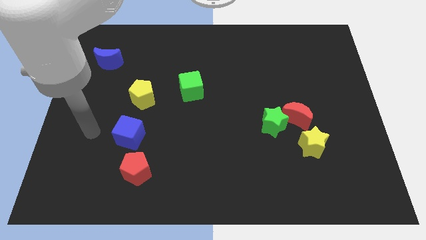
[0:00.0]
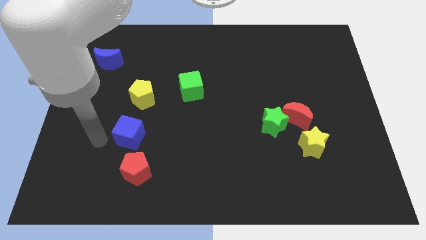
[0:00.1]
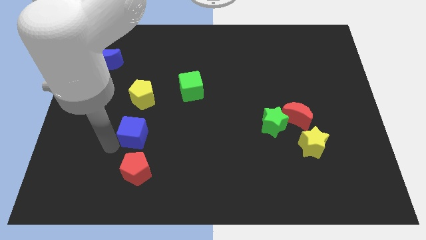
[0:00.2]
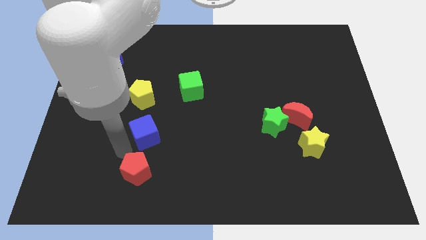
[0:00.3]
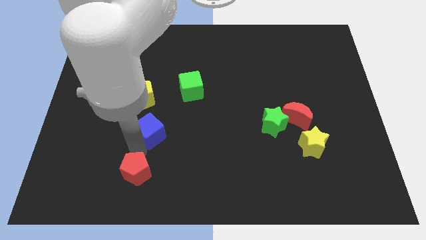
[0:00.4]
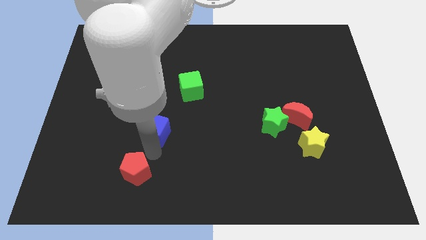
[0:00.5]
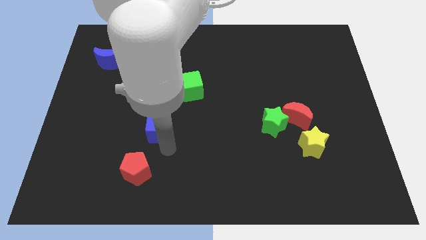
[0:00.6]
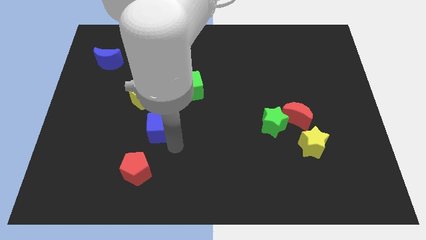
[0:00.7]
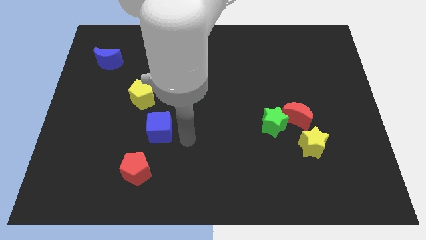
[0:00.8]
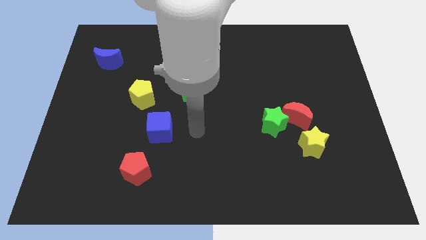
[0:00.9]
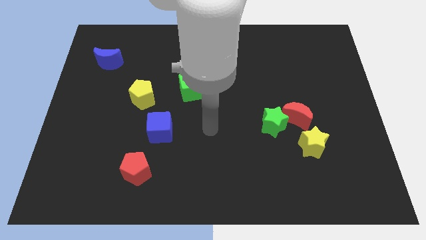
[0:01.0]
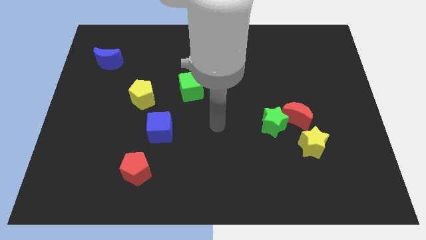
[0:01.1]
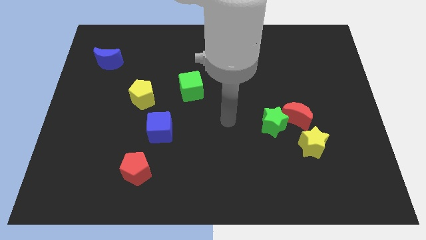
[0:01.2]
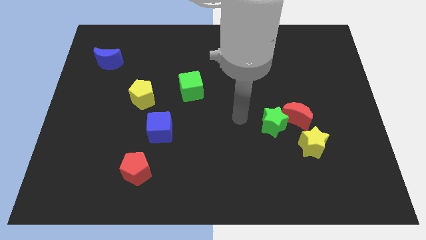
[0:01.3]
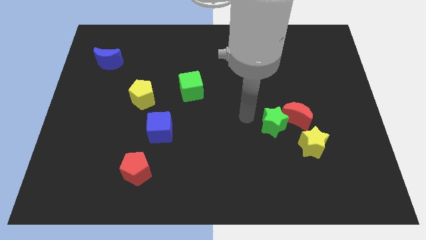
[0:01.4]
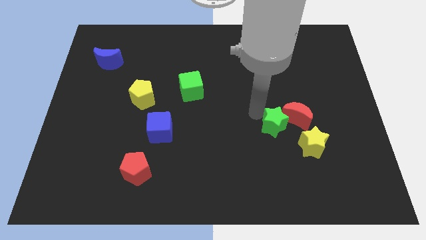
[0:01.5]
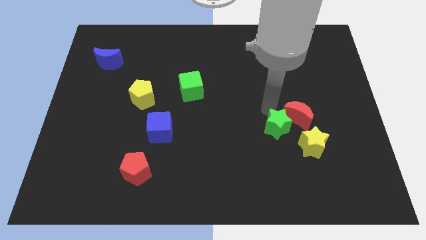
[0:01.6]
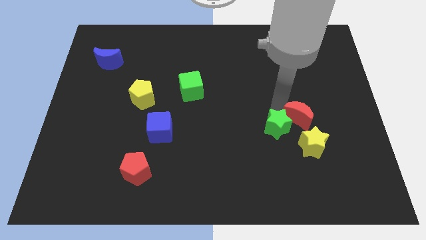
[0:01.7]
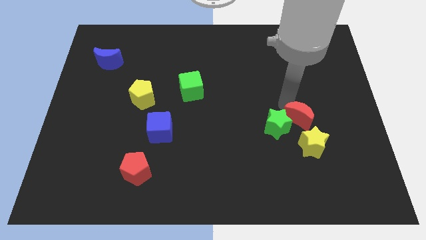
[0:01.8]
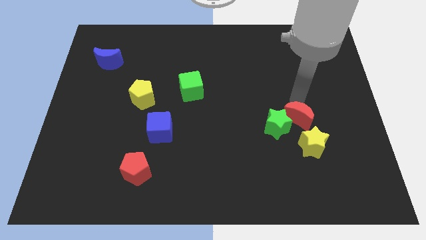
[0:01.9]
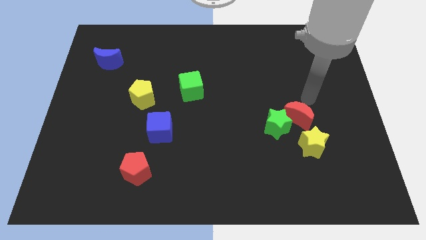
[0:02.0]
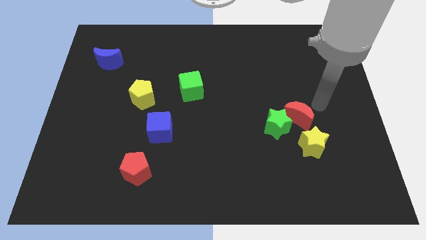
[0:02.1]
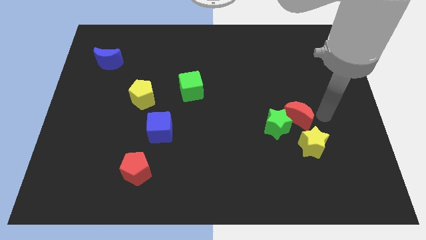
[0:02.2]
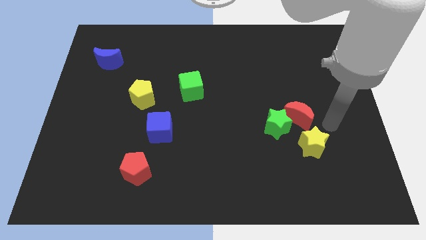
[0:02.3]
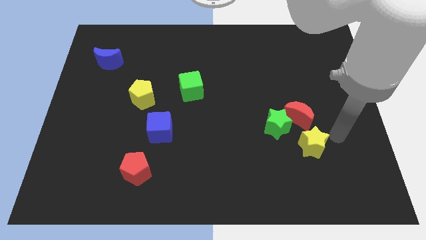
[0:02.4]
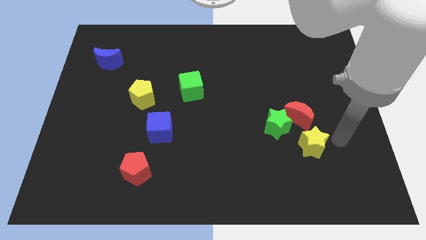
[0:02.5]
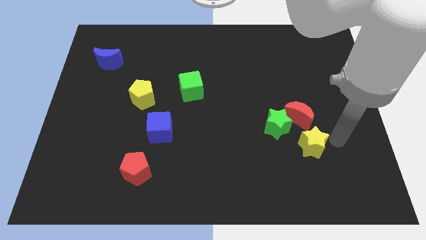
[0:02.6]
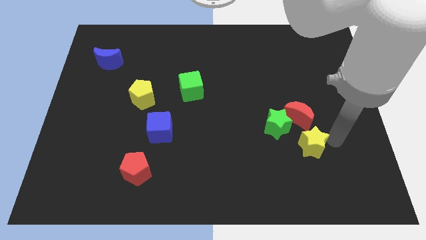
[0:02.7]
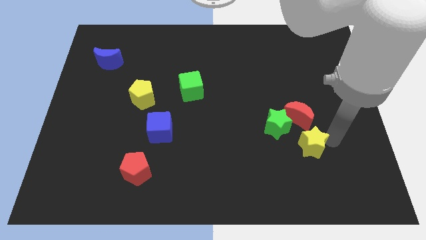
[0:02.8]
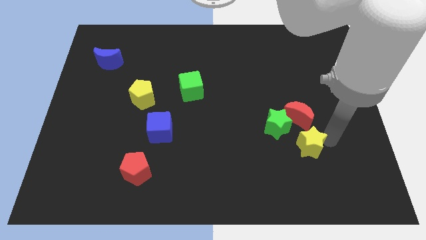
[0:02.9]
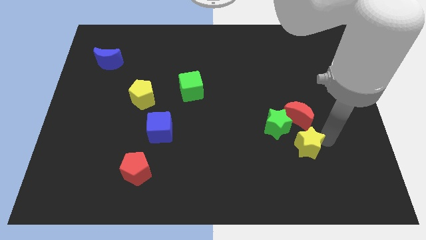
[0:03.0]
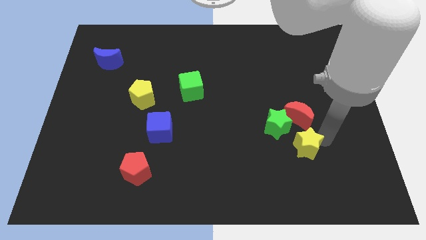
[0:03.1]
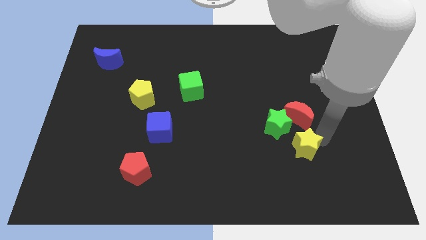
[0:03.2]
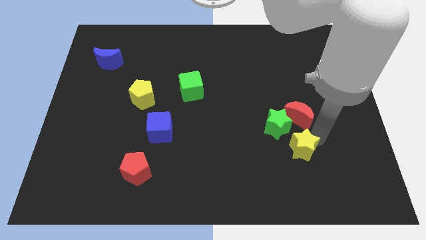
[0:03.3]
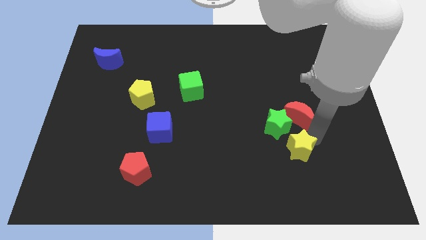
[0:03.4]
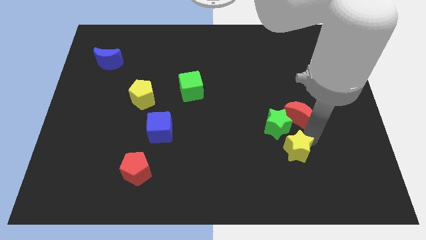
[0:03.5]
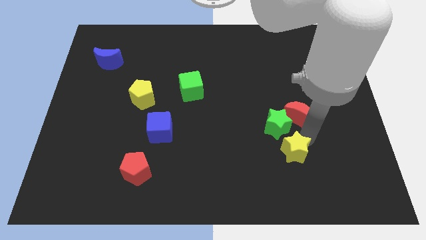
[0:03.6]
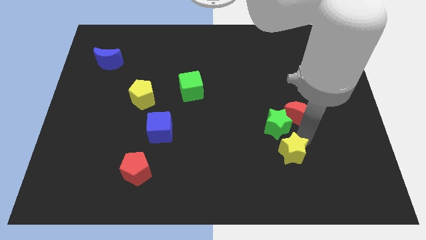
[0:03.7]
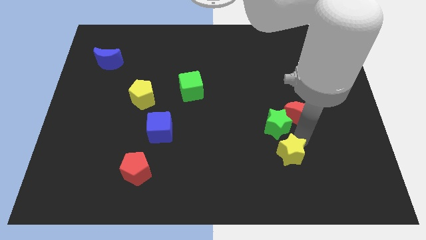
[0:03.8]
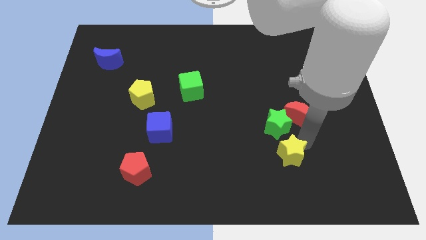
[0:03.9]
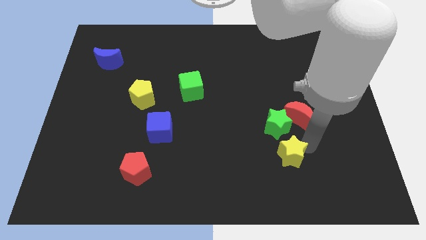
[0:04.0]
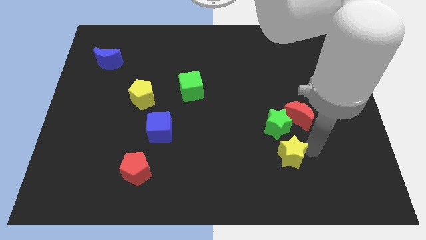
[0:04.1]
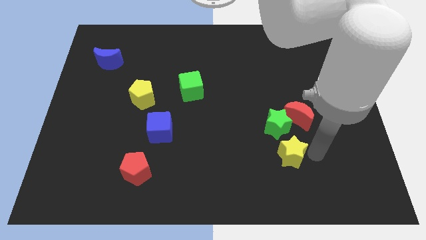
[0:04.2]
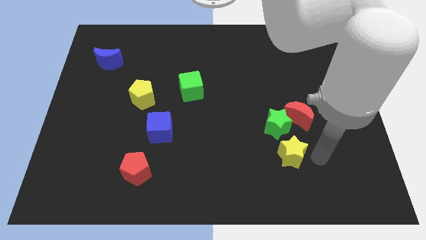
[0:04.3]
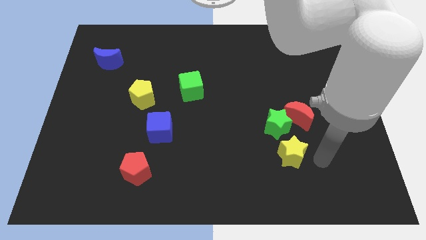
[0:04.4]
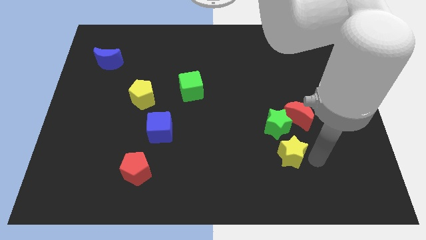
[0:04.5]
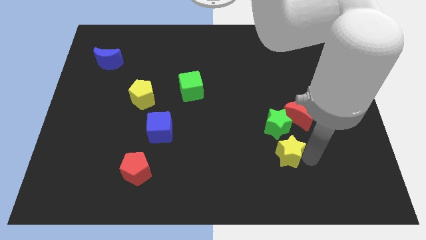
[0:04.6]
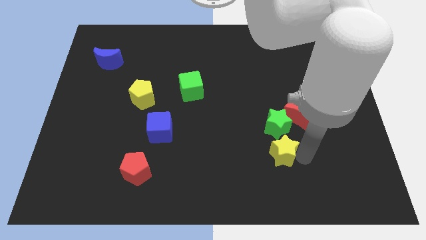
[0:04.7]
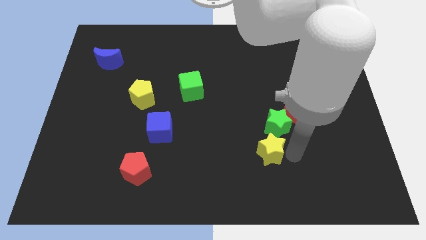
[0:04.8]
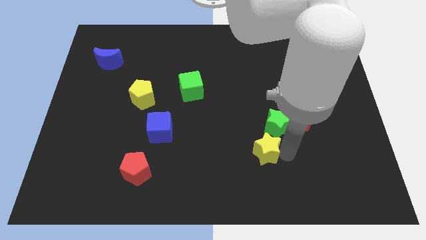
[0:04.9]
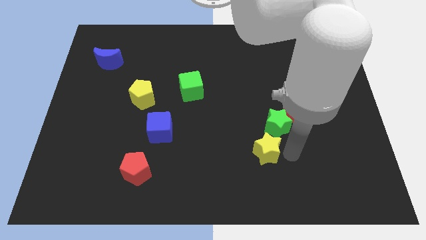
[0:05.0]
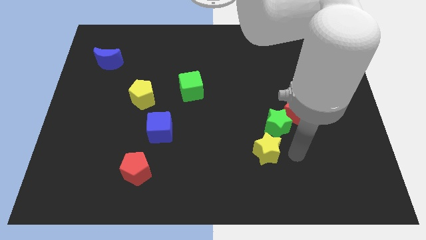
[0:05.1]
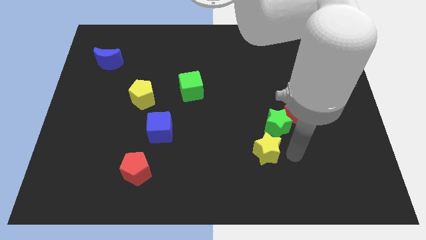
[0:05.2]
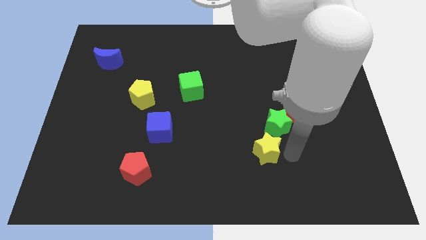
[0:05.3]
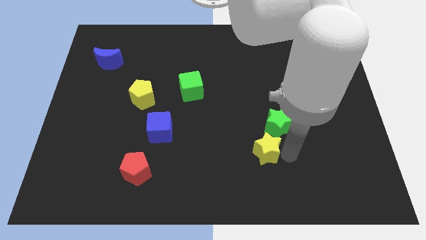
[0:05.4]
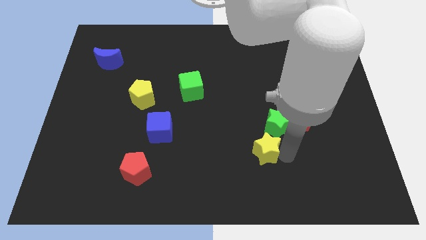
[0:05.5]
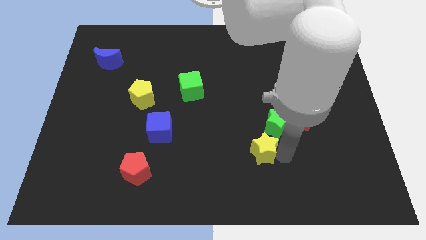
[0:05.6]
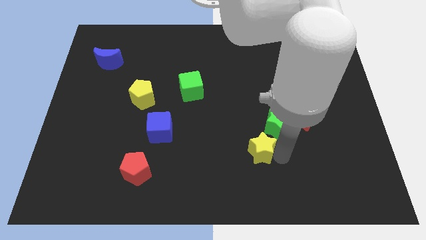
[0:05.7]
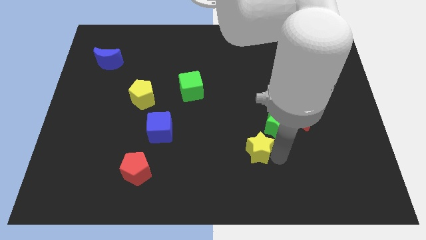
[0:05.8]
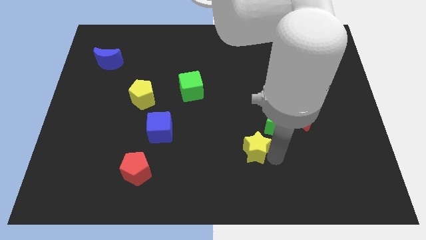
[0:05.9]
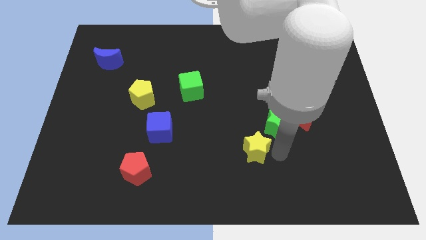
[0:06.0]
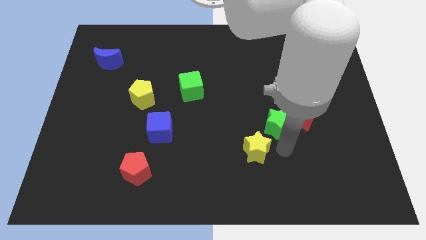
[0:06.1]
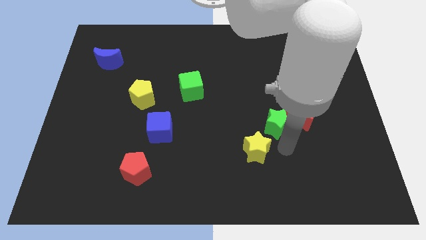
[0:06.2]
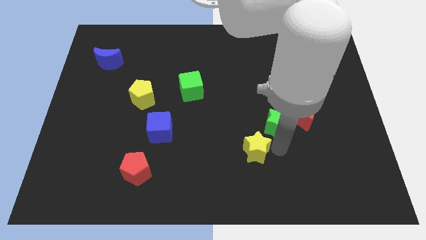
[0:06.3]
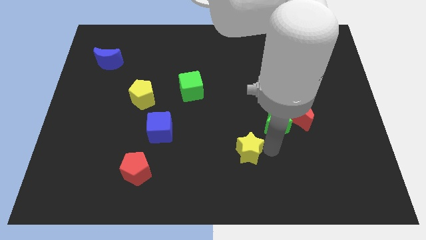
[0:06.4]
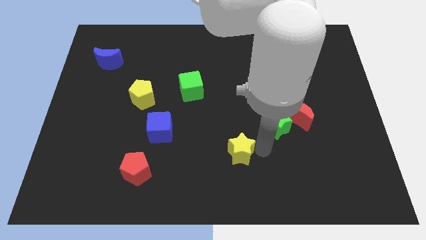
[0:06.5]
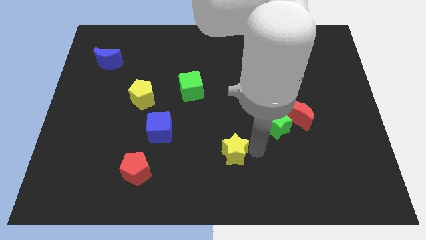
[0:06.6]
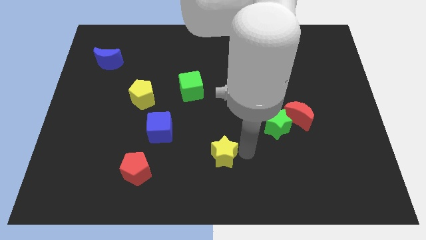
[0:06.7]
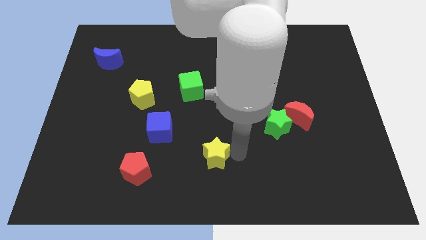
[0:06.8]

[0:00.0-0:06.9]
move the yellow star to the left

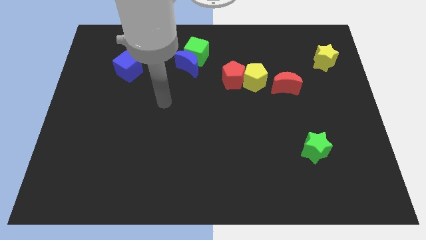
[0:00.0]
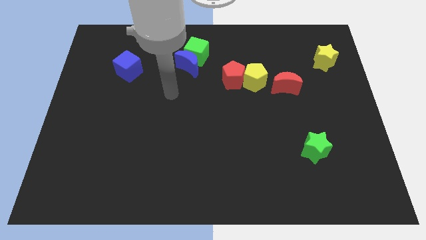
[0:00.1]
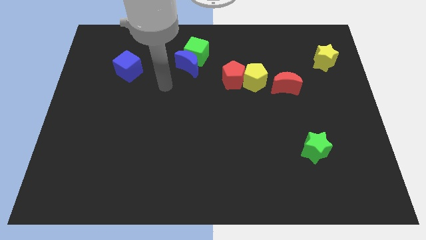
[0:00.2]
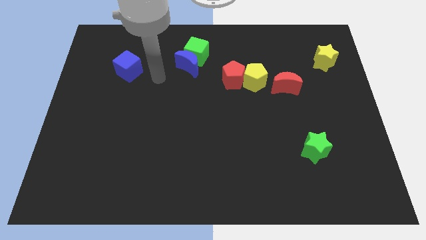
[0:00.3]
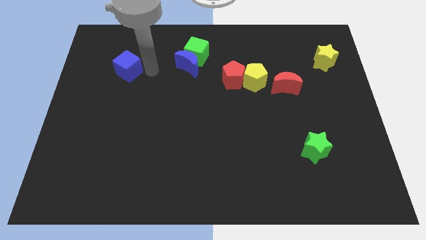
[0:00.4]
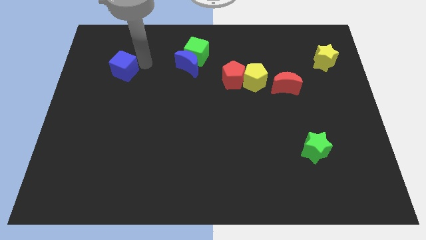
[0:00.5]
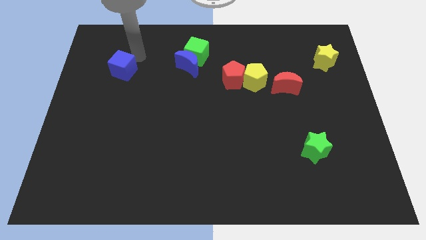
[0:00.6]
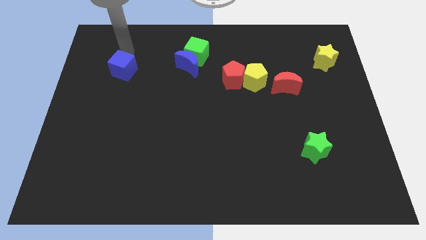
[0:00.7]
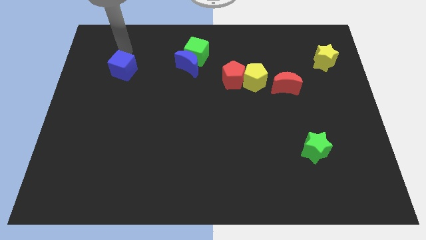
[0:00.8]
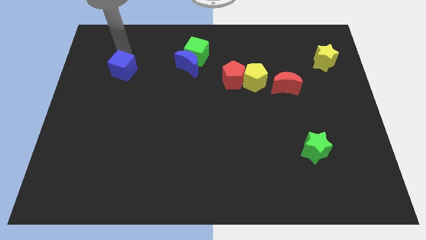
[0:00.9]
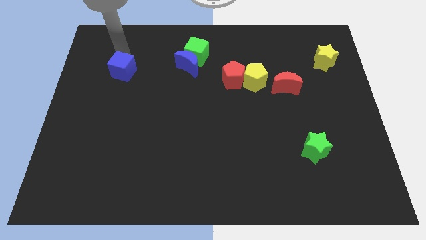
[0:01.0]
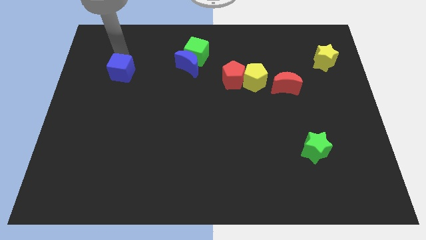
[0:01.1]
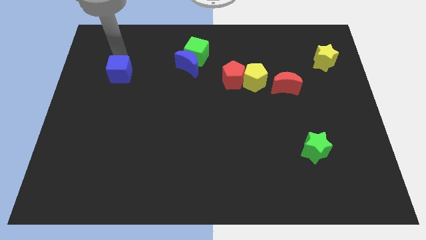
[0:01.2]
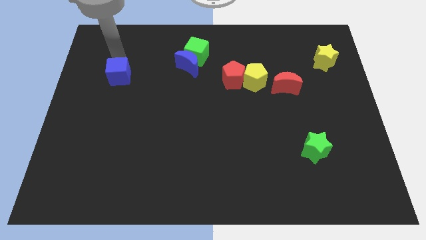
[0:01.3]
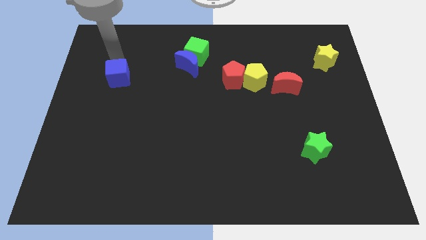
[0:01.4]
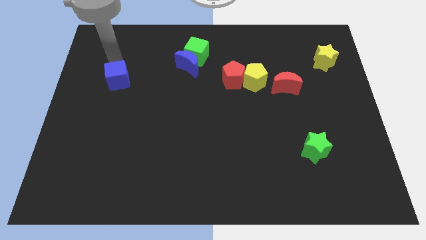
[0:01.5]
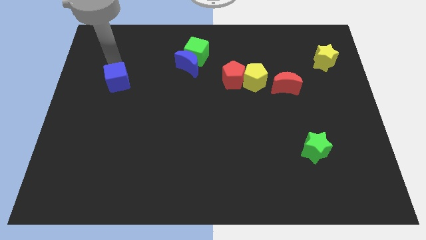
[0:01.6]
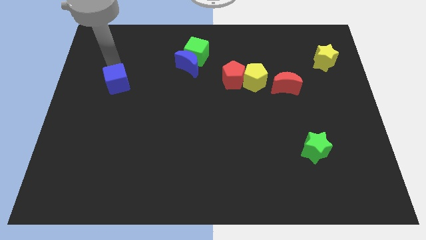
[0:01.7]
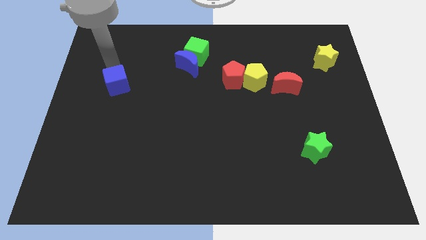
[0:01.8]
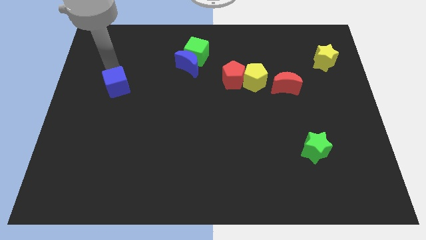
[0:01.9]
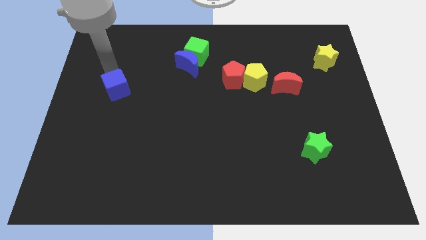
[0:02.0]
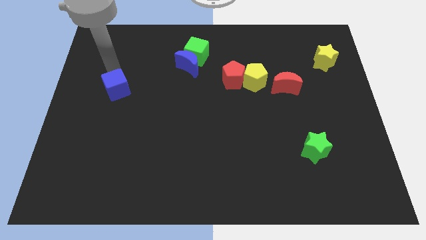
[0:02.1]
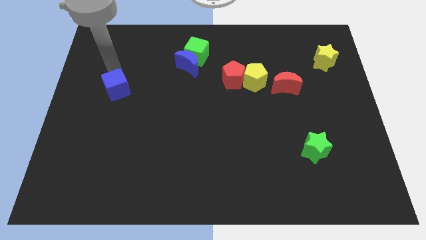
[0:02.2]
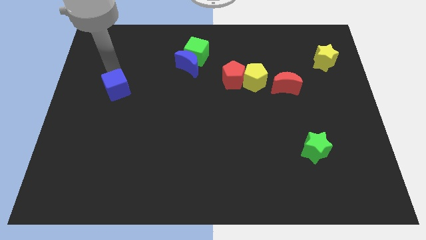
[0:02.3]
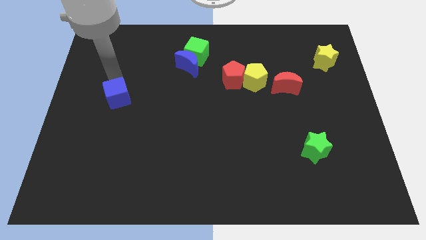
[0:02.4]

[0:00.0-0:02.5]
move the blue cube a little down
